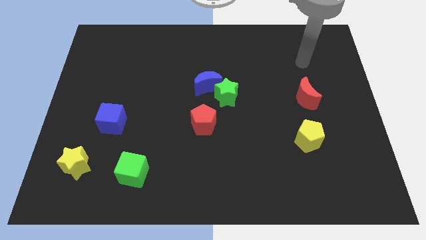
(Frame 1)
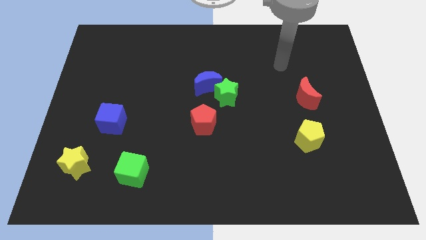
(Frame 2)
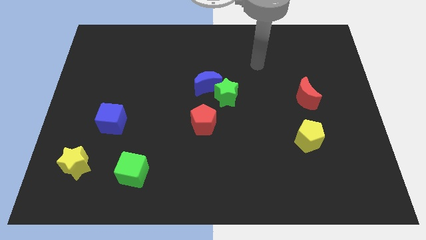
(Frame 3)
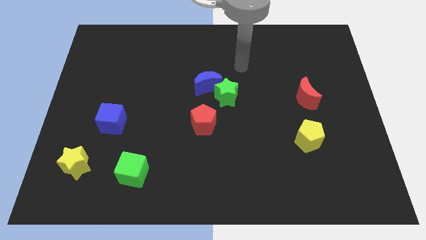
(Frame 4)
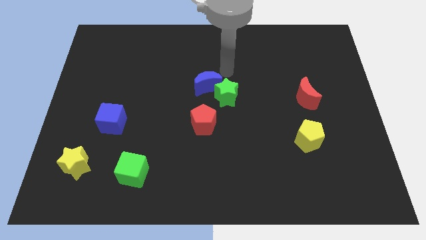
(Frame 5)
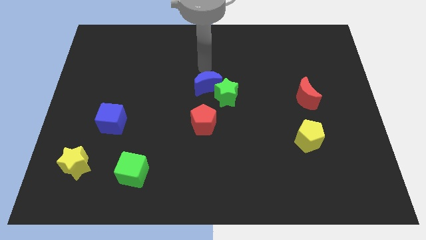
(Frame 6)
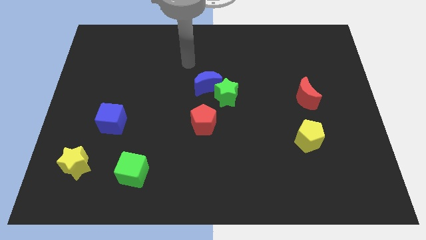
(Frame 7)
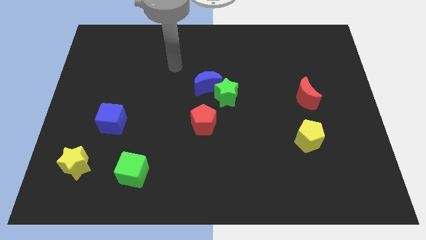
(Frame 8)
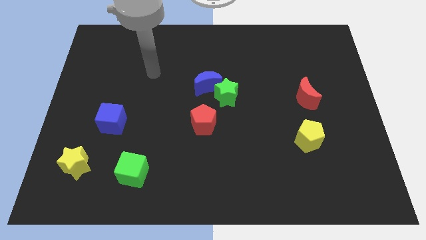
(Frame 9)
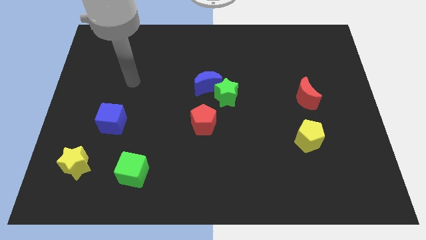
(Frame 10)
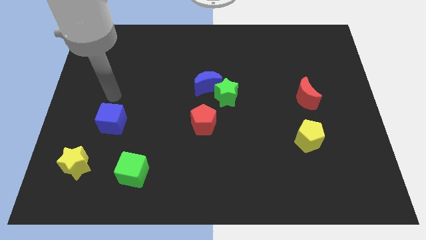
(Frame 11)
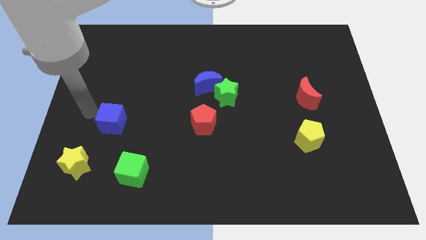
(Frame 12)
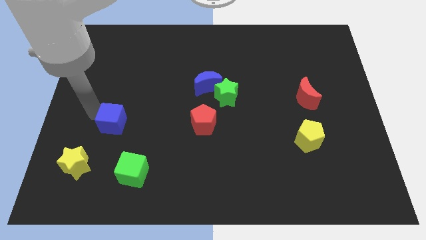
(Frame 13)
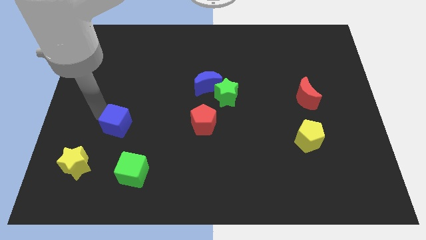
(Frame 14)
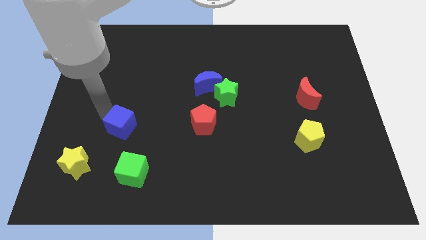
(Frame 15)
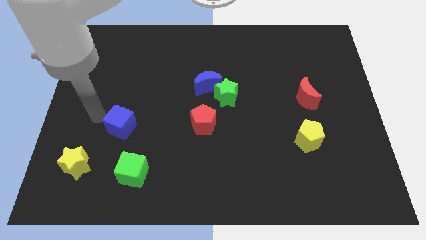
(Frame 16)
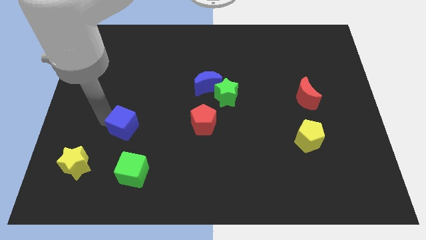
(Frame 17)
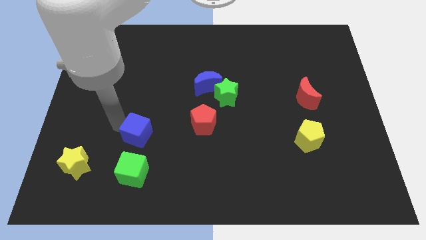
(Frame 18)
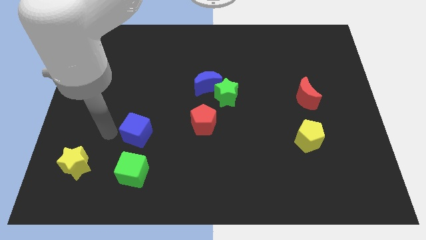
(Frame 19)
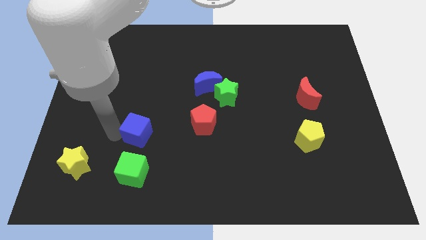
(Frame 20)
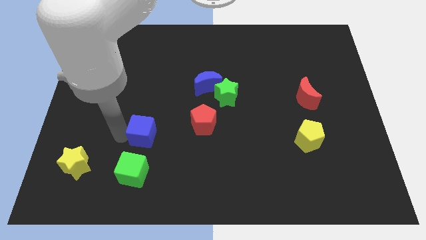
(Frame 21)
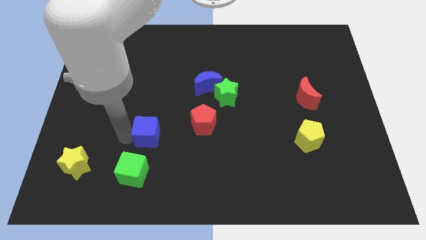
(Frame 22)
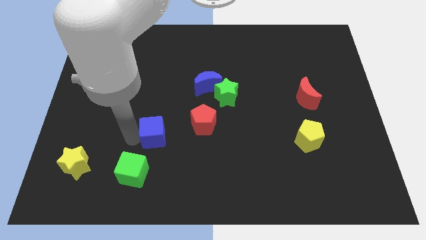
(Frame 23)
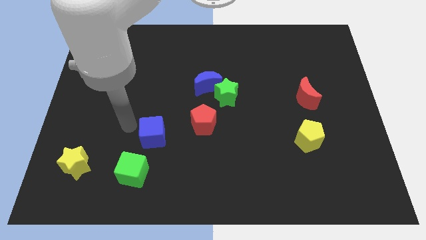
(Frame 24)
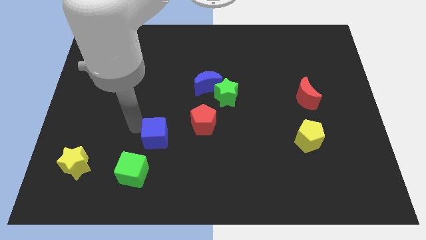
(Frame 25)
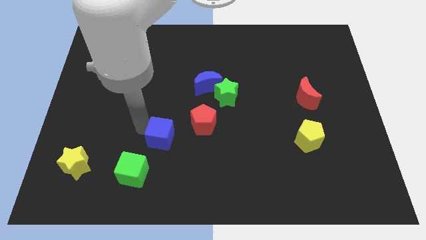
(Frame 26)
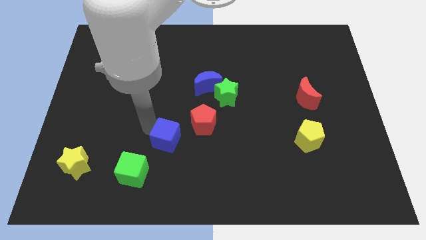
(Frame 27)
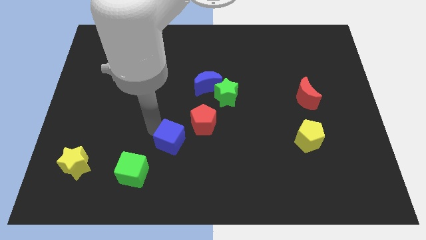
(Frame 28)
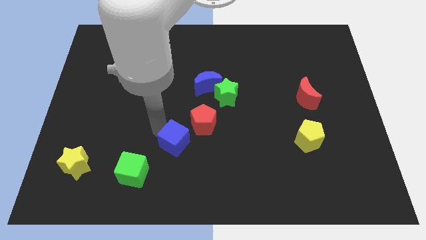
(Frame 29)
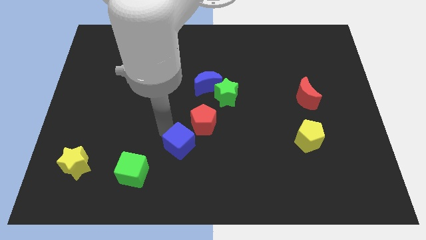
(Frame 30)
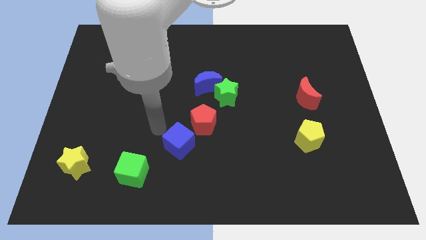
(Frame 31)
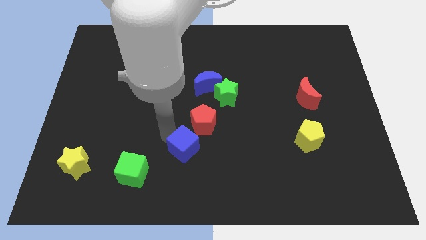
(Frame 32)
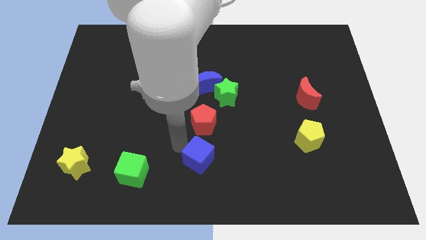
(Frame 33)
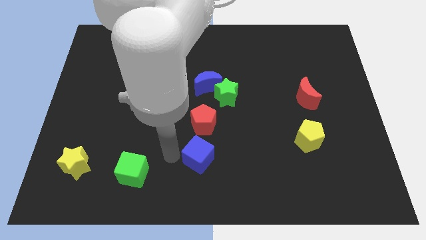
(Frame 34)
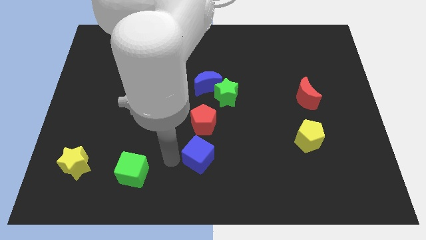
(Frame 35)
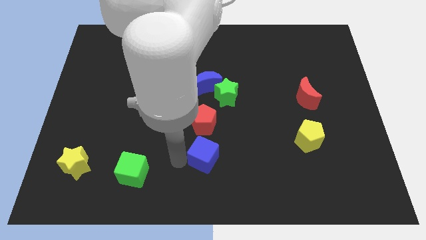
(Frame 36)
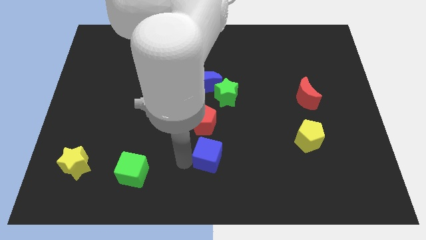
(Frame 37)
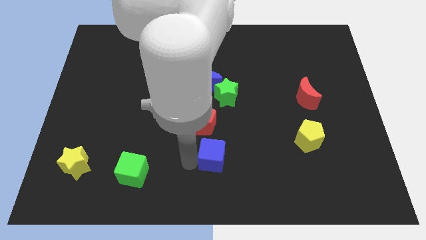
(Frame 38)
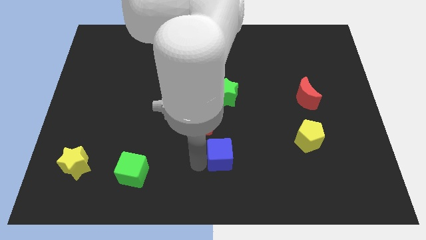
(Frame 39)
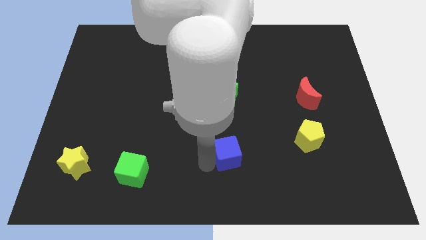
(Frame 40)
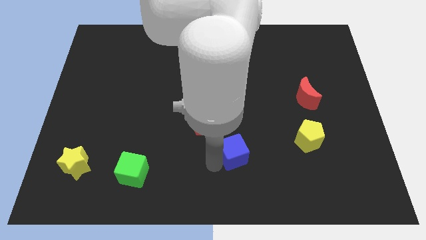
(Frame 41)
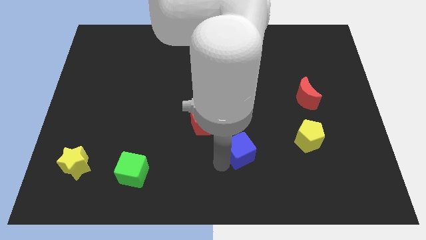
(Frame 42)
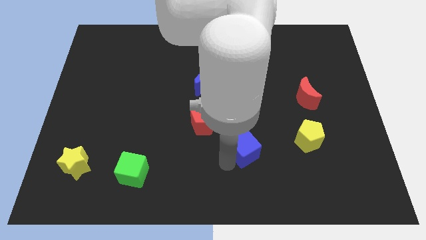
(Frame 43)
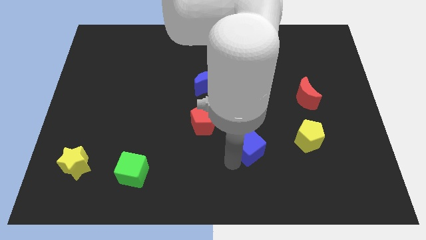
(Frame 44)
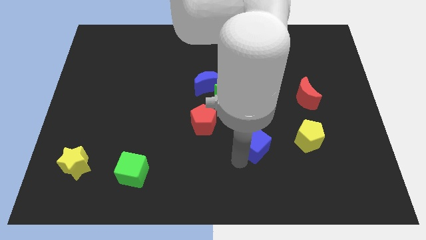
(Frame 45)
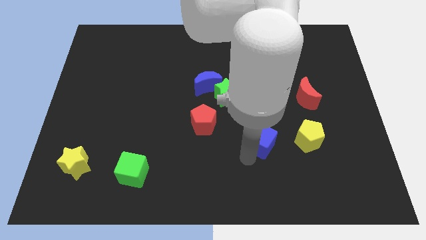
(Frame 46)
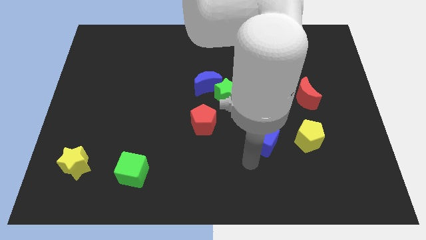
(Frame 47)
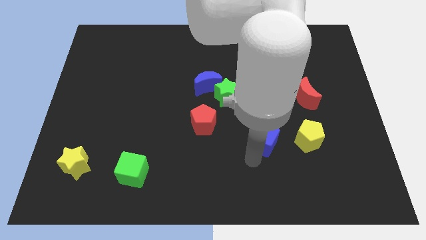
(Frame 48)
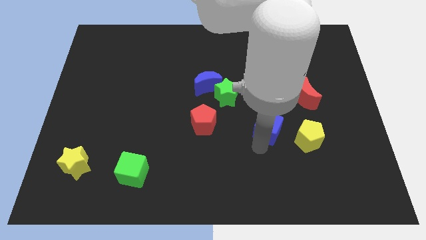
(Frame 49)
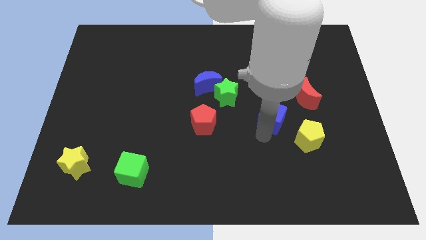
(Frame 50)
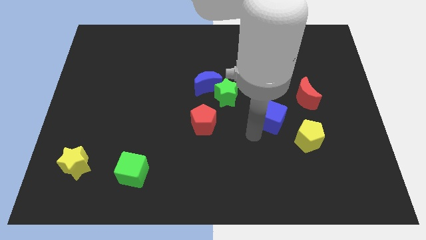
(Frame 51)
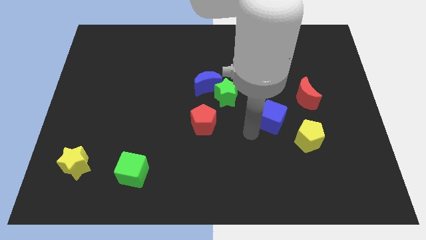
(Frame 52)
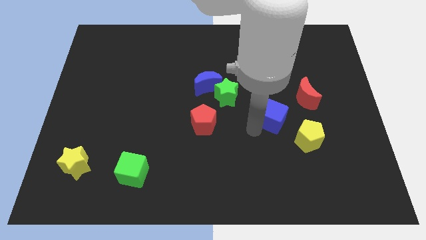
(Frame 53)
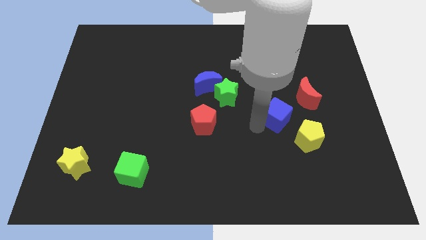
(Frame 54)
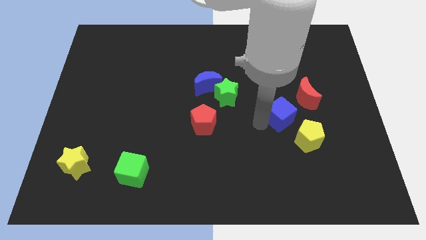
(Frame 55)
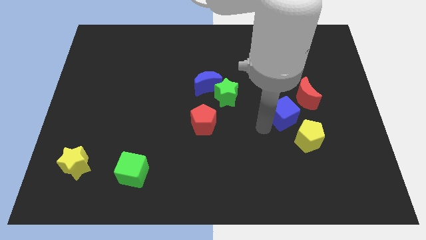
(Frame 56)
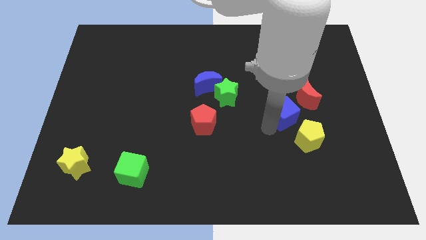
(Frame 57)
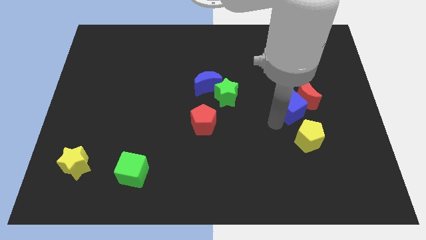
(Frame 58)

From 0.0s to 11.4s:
move the blue cube close to the red moon

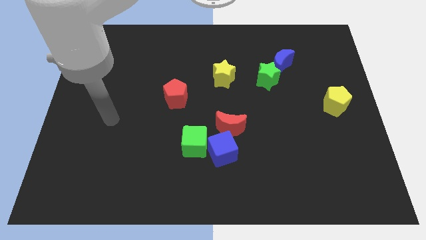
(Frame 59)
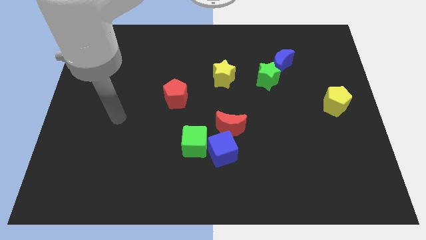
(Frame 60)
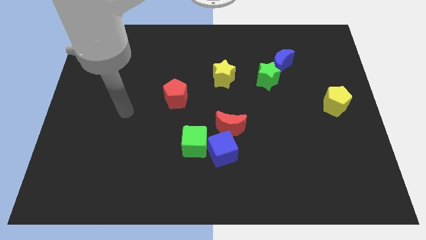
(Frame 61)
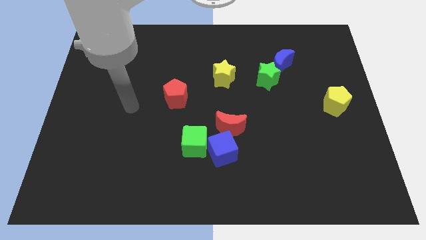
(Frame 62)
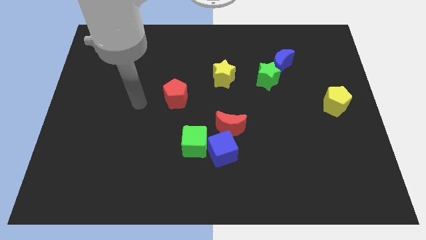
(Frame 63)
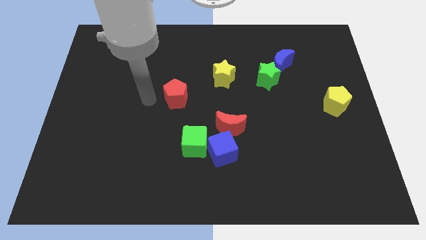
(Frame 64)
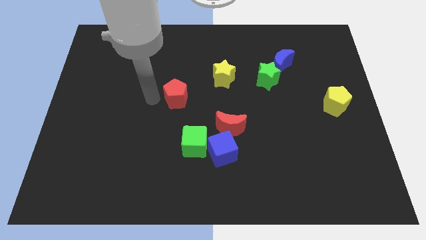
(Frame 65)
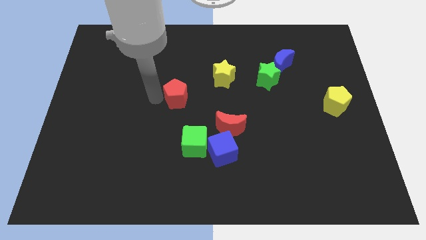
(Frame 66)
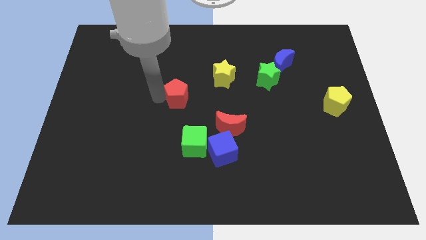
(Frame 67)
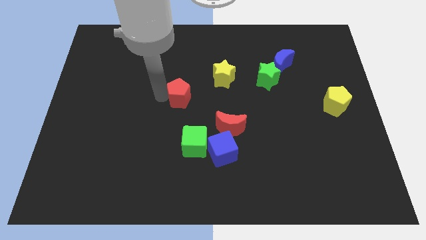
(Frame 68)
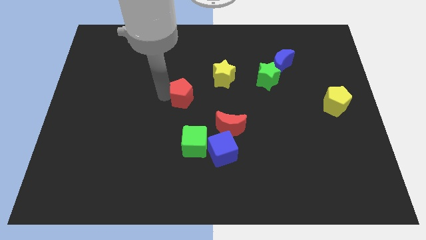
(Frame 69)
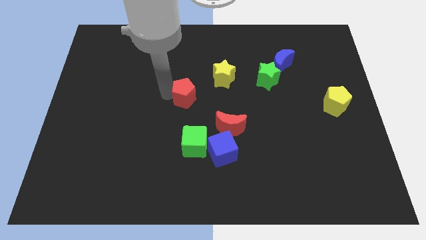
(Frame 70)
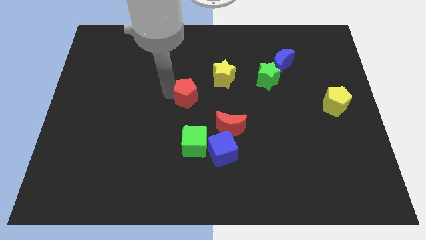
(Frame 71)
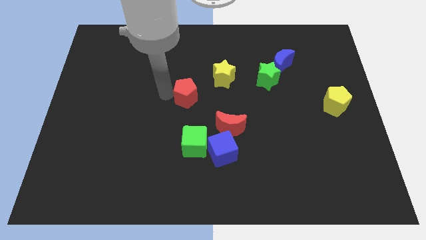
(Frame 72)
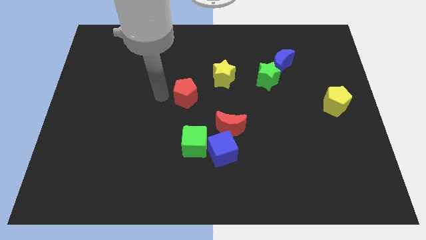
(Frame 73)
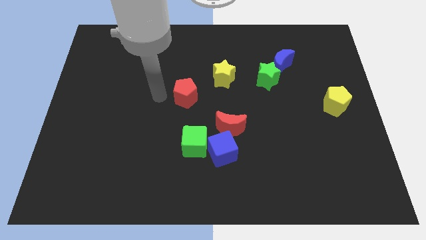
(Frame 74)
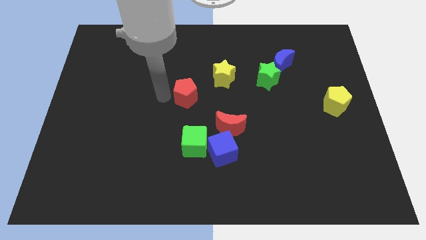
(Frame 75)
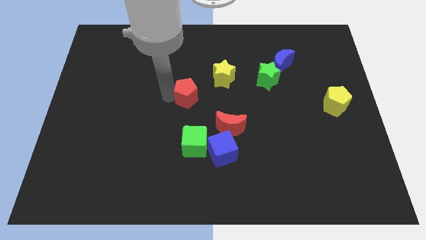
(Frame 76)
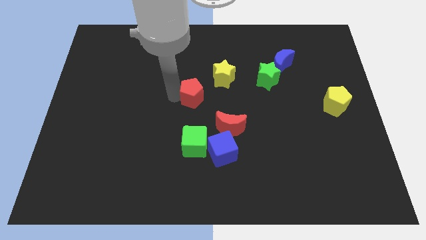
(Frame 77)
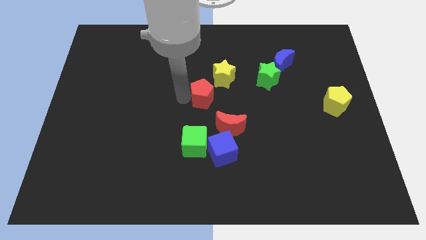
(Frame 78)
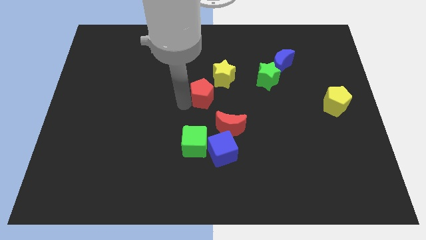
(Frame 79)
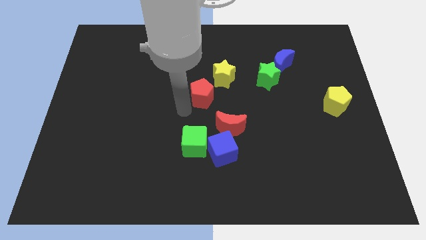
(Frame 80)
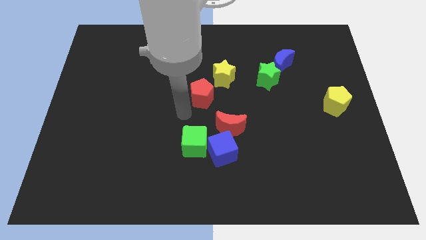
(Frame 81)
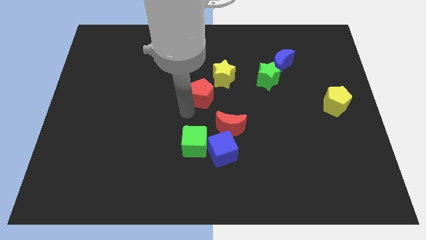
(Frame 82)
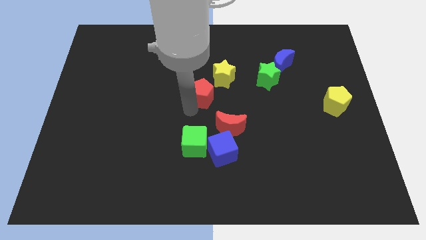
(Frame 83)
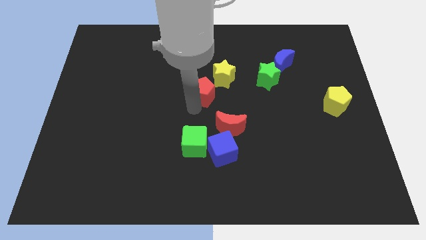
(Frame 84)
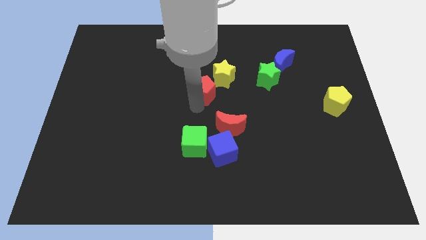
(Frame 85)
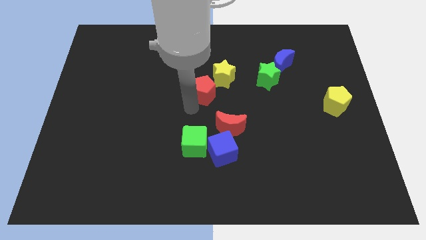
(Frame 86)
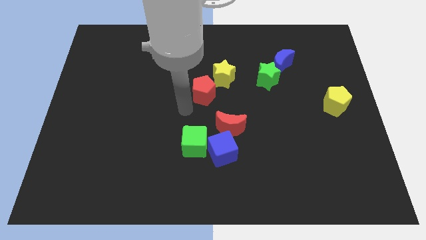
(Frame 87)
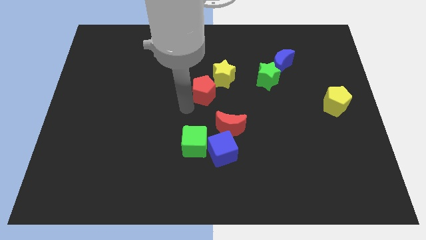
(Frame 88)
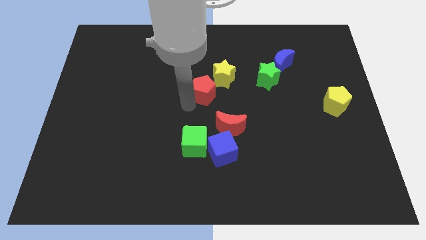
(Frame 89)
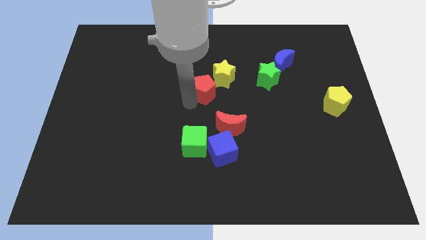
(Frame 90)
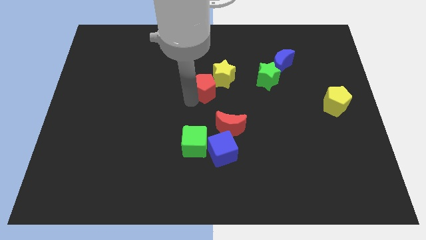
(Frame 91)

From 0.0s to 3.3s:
move the red pentagon close to the yellow star
